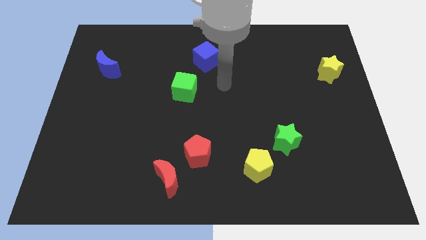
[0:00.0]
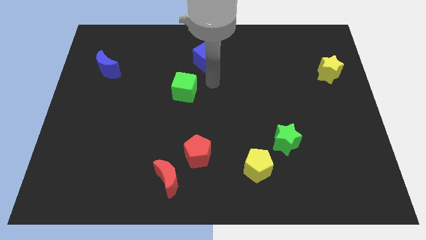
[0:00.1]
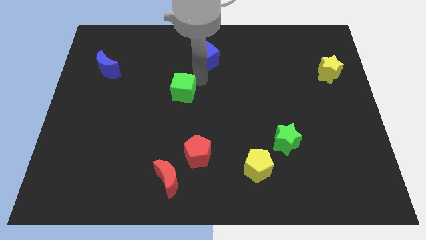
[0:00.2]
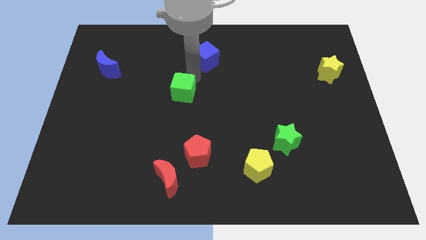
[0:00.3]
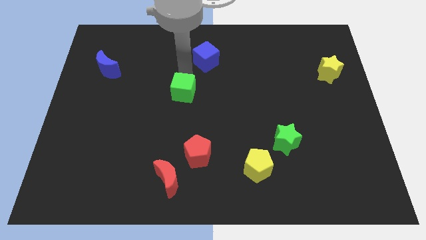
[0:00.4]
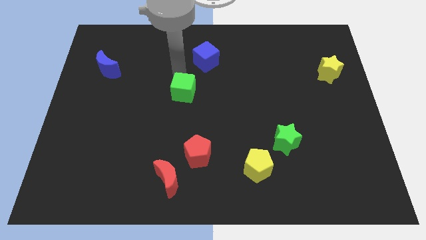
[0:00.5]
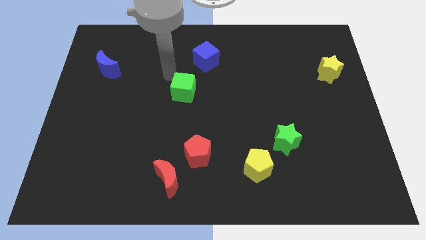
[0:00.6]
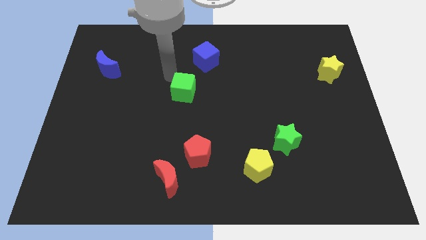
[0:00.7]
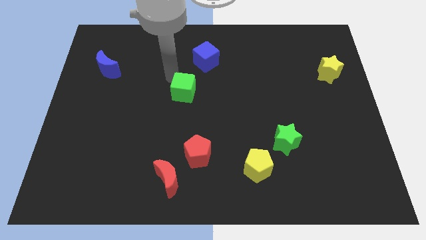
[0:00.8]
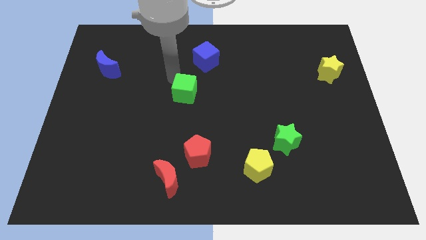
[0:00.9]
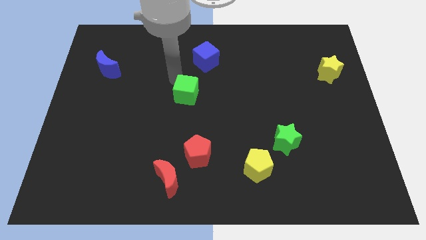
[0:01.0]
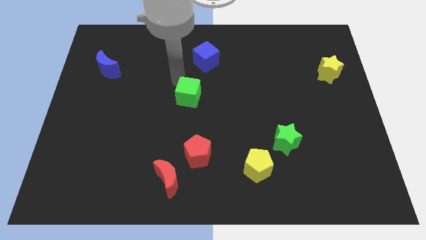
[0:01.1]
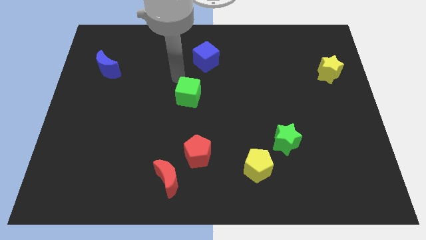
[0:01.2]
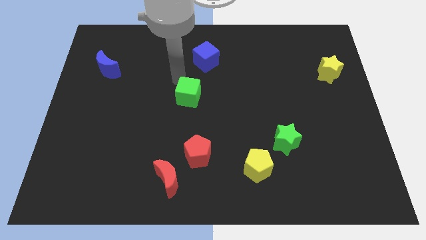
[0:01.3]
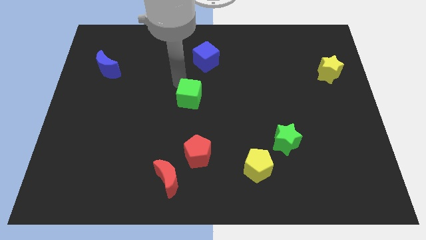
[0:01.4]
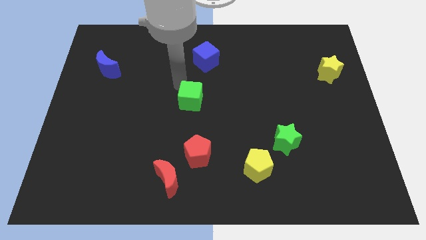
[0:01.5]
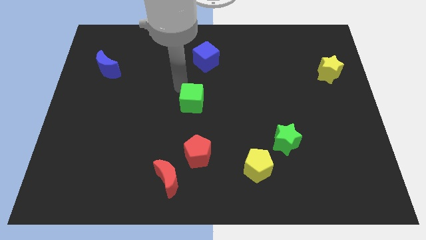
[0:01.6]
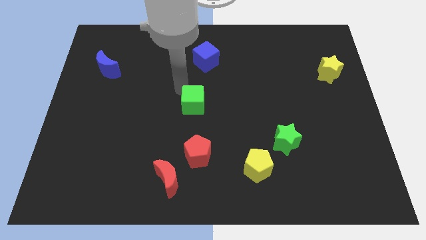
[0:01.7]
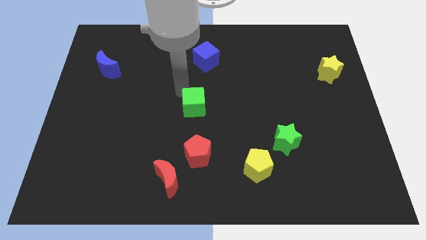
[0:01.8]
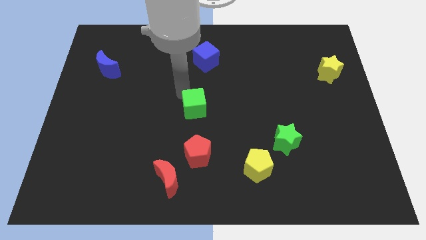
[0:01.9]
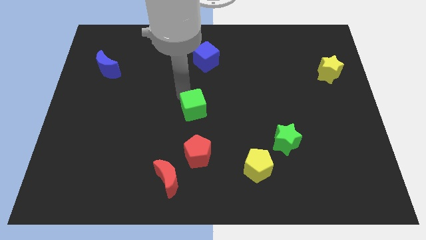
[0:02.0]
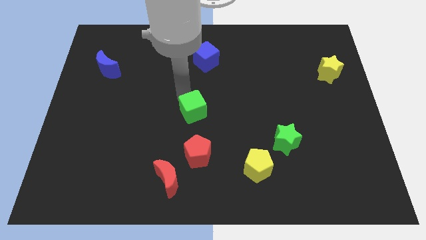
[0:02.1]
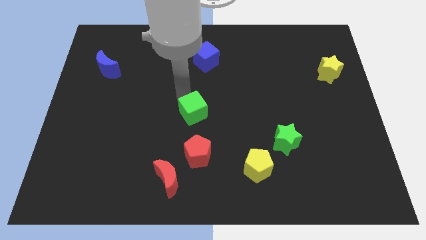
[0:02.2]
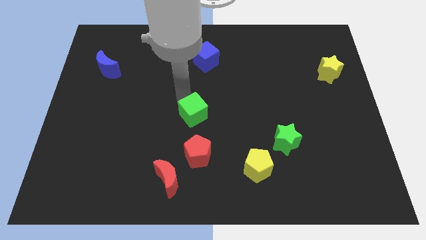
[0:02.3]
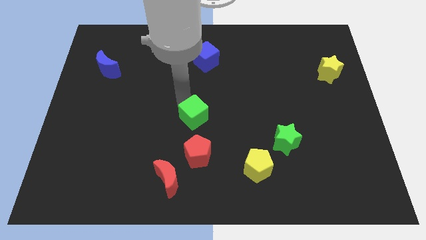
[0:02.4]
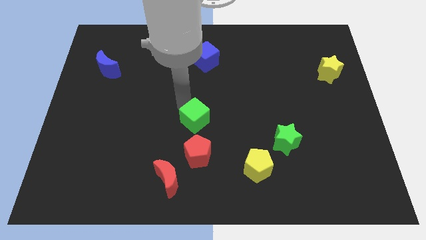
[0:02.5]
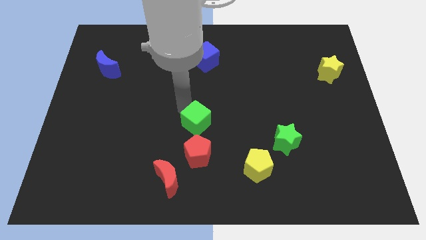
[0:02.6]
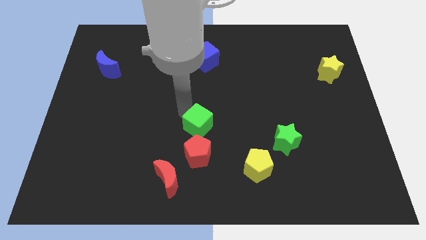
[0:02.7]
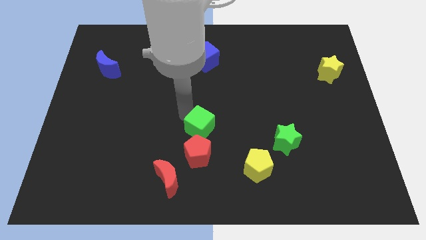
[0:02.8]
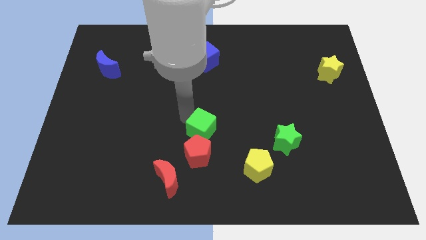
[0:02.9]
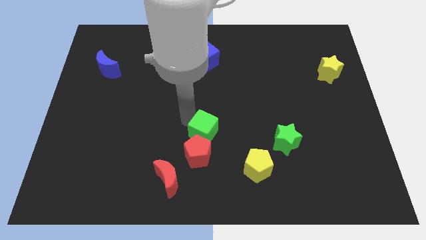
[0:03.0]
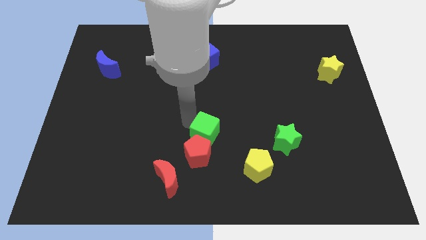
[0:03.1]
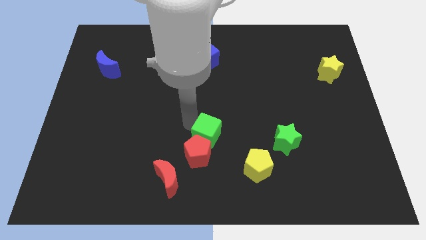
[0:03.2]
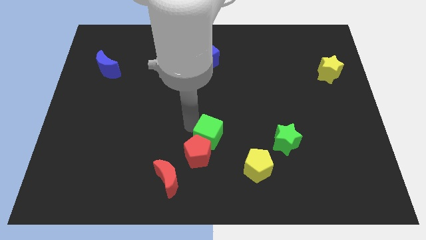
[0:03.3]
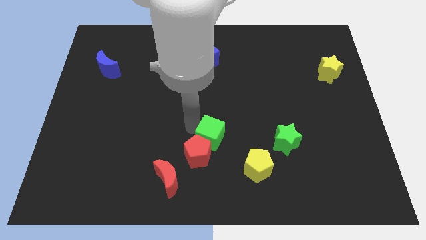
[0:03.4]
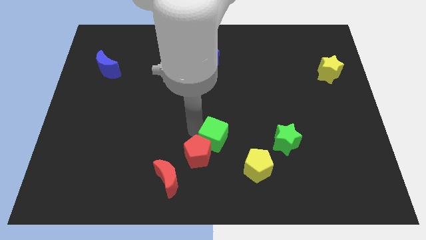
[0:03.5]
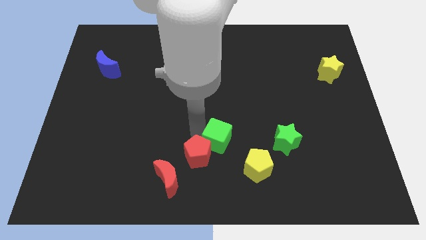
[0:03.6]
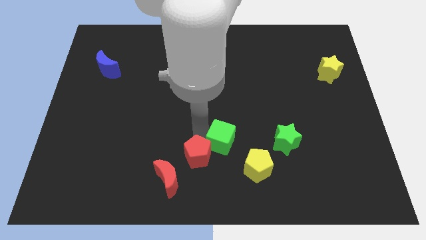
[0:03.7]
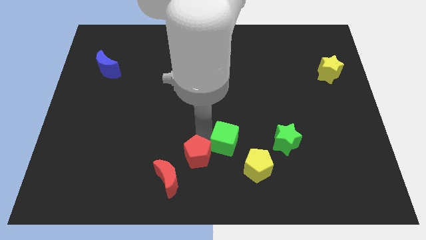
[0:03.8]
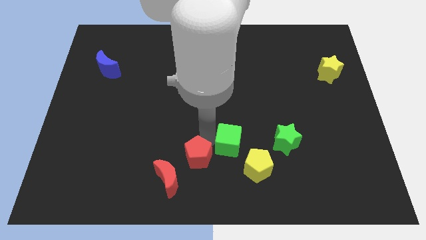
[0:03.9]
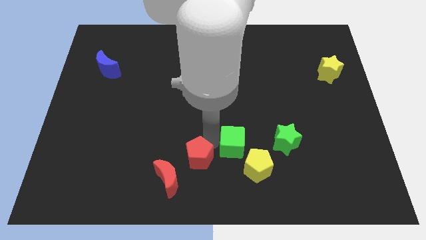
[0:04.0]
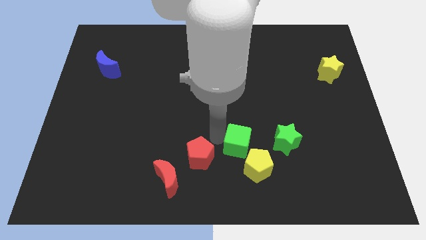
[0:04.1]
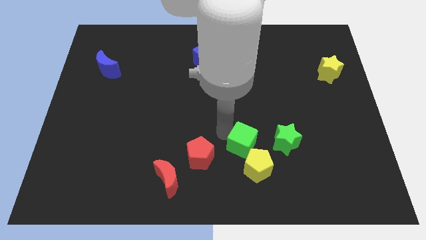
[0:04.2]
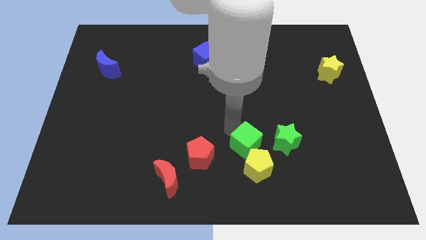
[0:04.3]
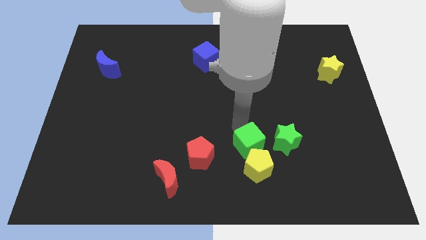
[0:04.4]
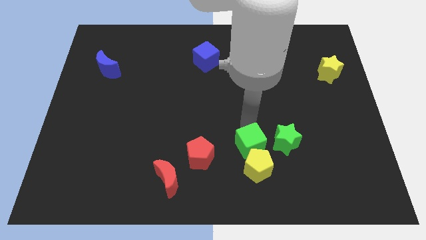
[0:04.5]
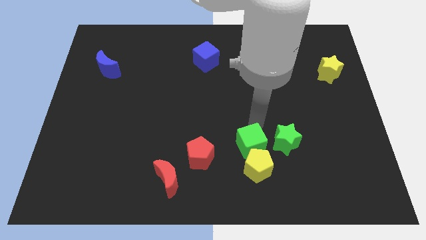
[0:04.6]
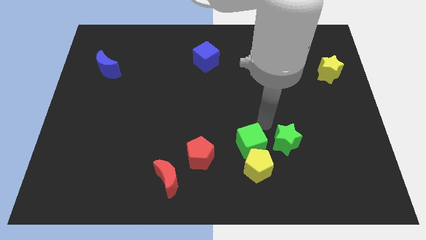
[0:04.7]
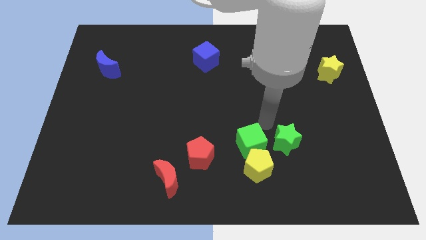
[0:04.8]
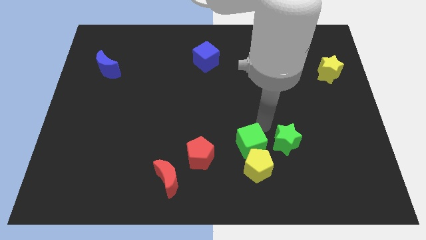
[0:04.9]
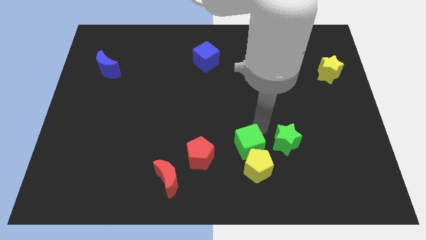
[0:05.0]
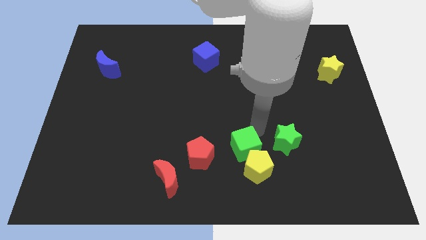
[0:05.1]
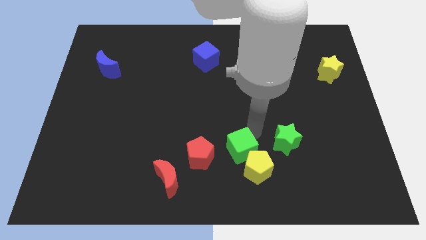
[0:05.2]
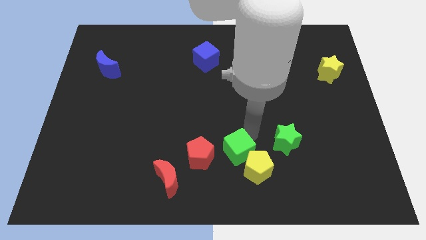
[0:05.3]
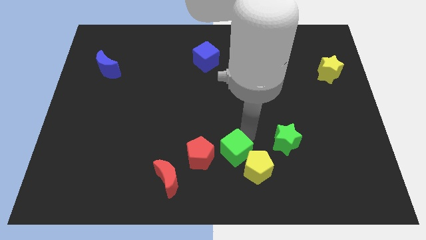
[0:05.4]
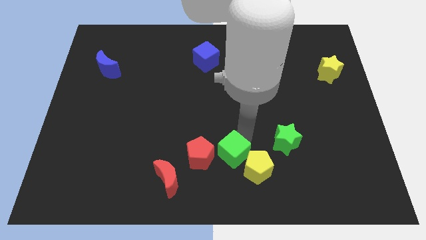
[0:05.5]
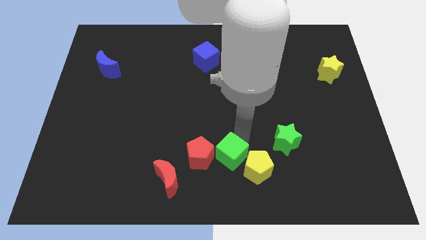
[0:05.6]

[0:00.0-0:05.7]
put the green cube to the bottom right side of the red pentagon

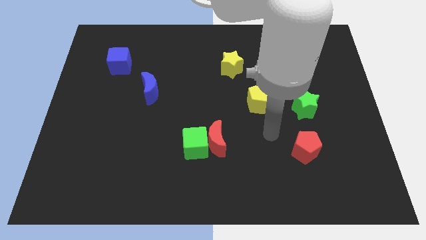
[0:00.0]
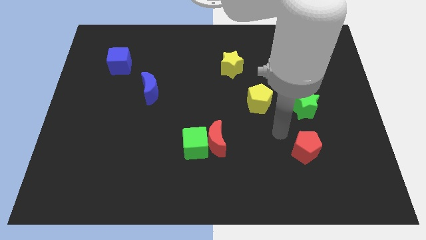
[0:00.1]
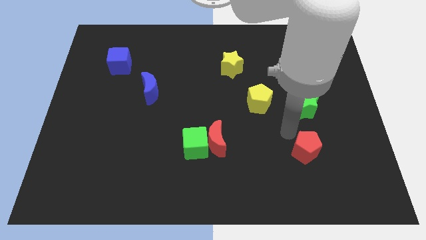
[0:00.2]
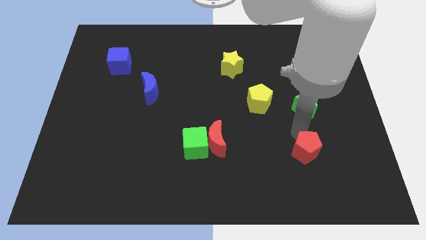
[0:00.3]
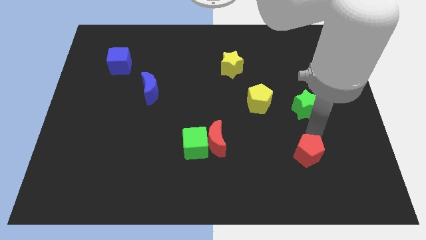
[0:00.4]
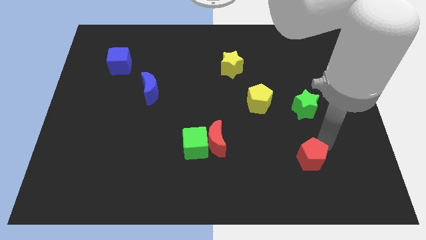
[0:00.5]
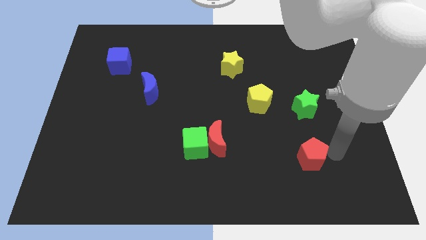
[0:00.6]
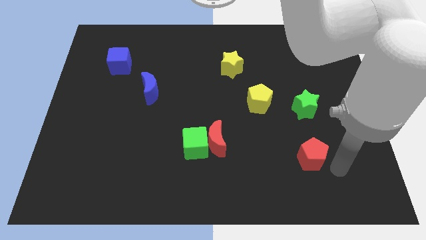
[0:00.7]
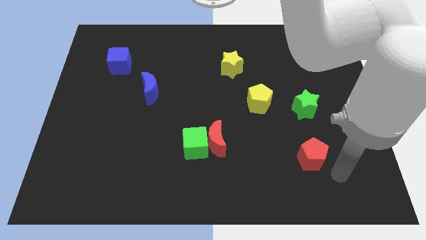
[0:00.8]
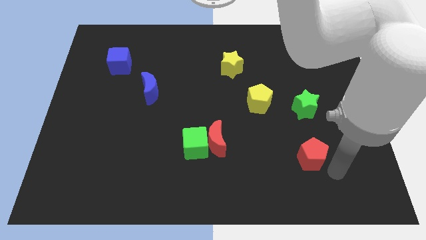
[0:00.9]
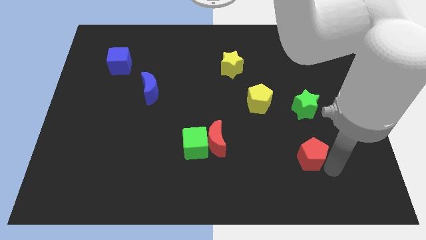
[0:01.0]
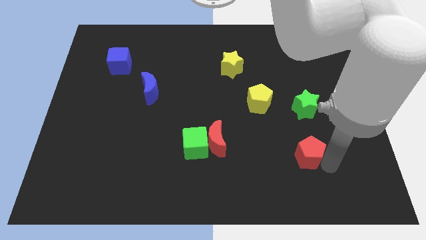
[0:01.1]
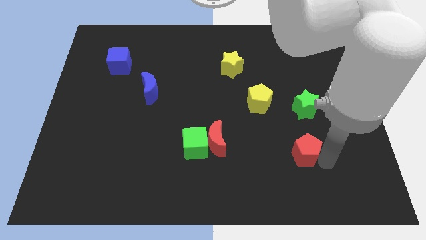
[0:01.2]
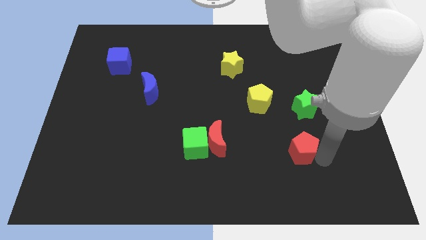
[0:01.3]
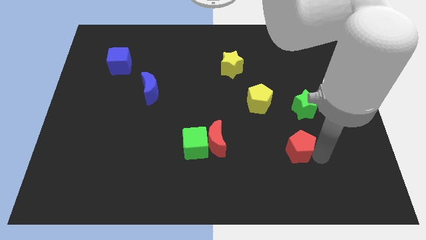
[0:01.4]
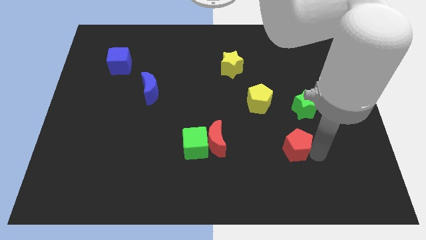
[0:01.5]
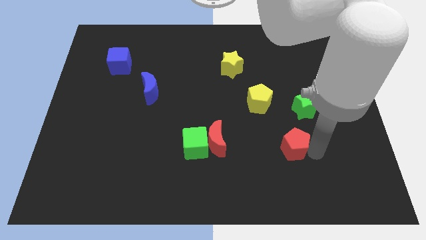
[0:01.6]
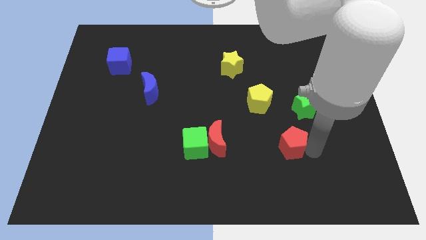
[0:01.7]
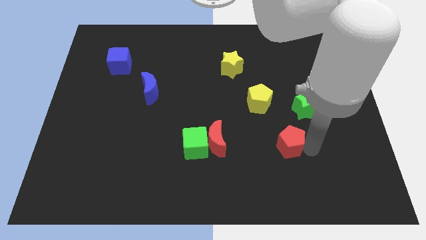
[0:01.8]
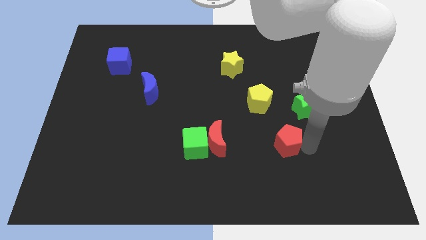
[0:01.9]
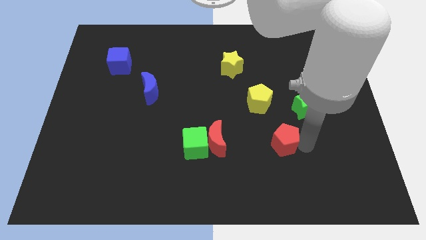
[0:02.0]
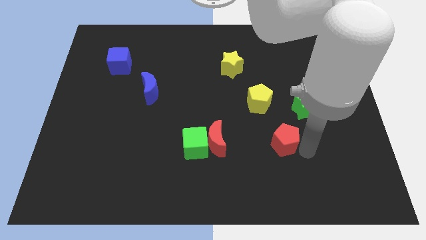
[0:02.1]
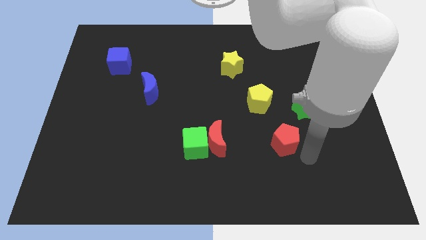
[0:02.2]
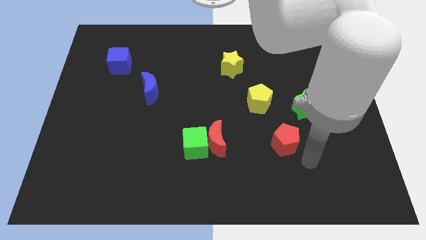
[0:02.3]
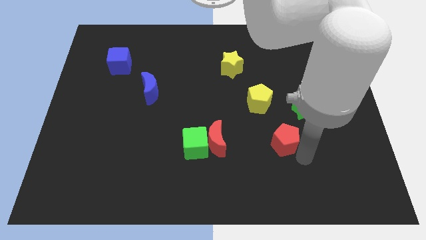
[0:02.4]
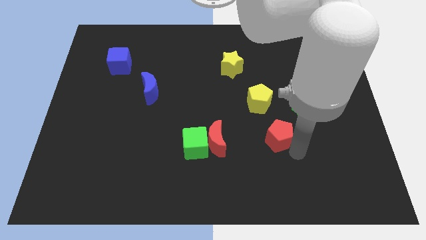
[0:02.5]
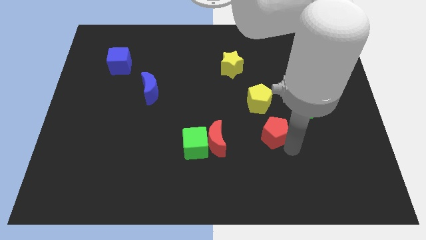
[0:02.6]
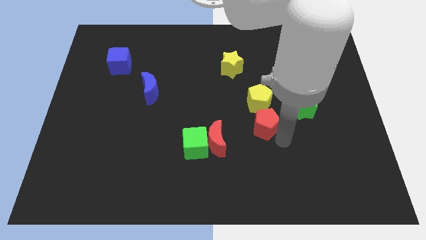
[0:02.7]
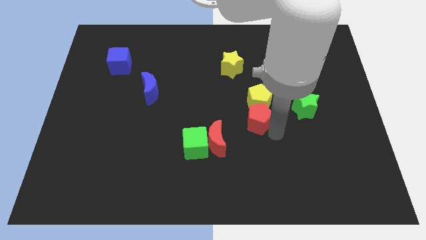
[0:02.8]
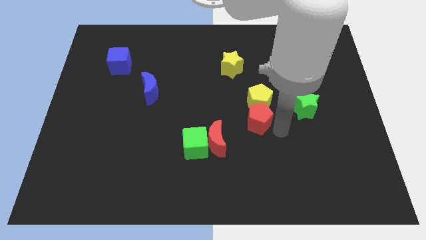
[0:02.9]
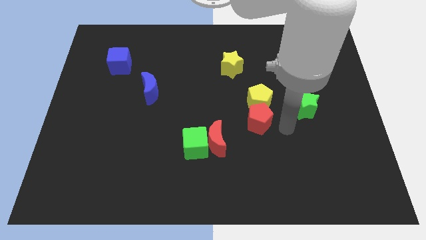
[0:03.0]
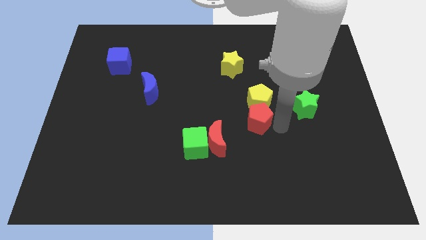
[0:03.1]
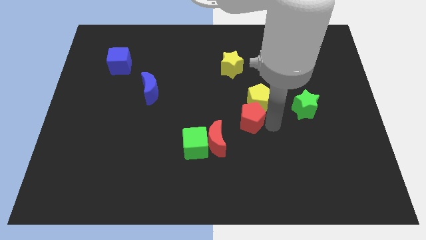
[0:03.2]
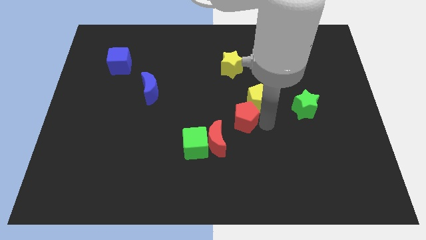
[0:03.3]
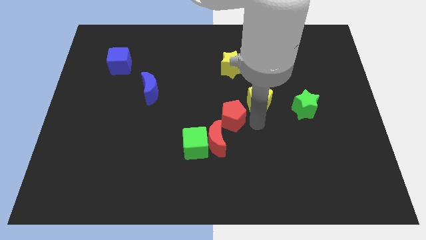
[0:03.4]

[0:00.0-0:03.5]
put the red pentagon above the red moon
